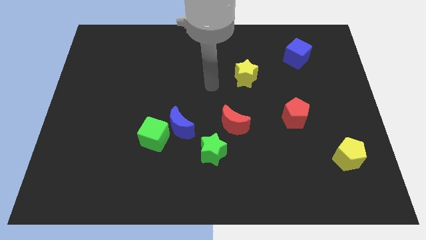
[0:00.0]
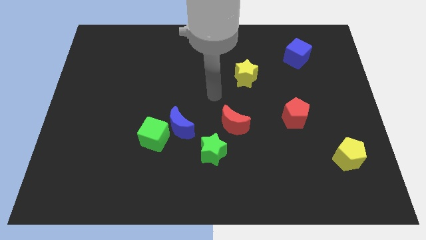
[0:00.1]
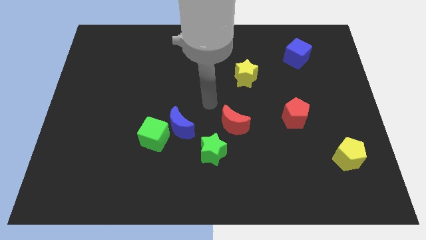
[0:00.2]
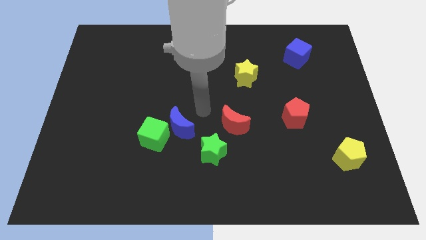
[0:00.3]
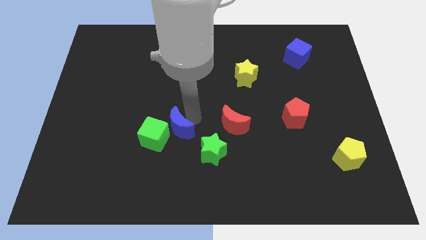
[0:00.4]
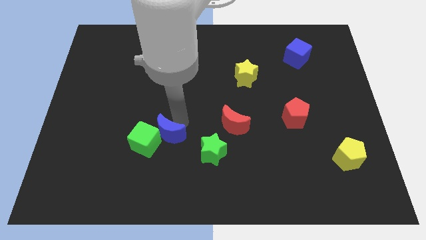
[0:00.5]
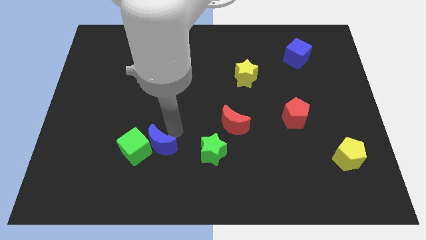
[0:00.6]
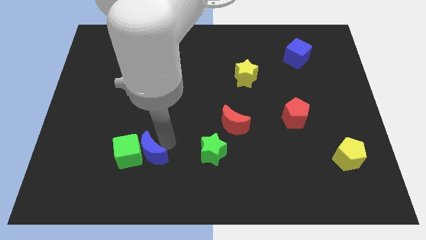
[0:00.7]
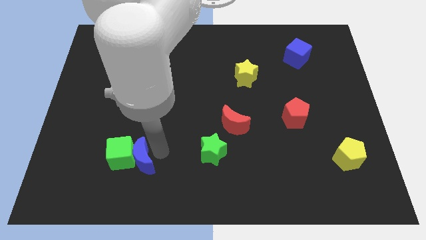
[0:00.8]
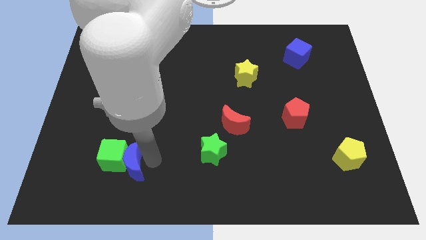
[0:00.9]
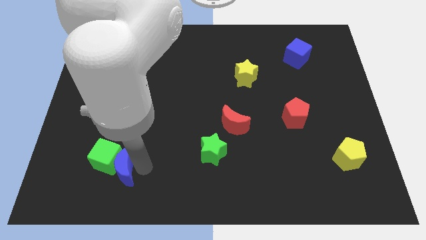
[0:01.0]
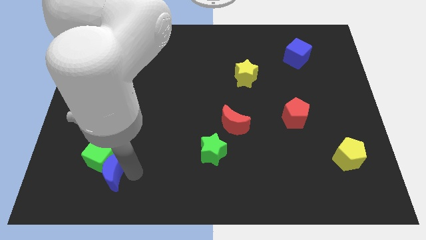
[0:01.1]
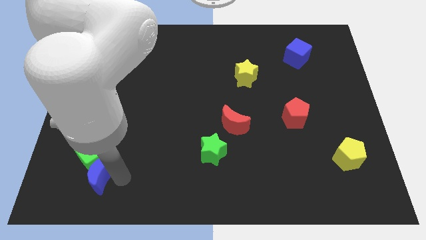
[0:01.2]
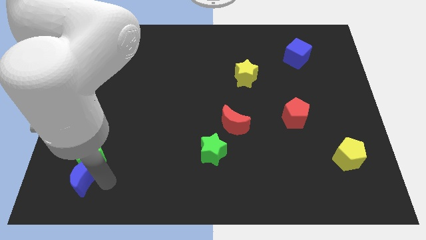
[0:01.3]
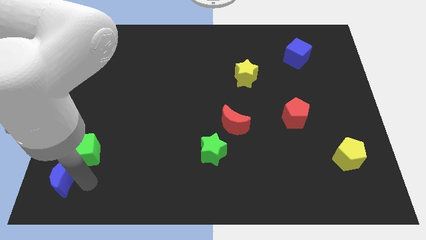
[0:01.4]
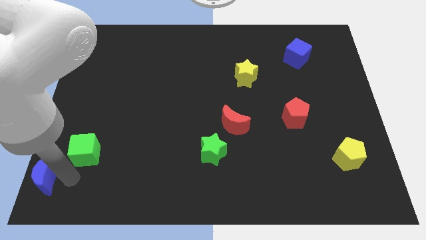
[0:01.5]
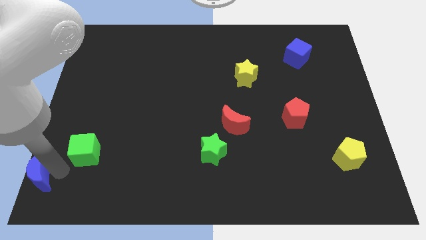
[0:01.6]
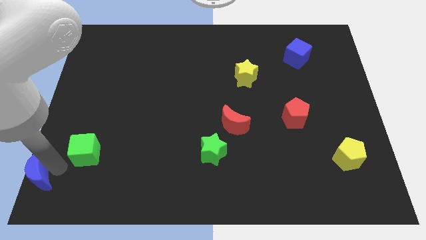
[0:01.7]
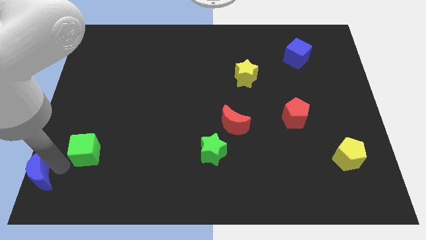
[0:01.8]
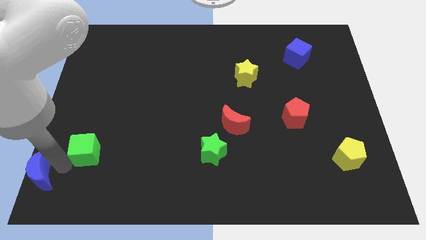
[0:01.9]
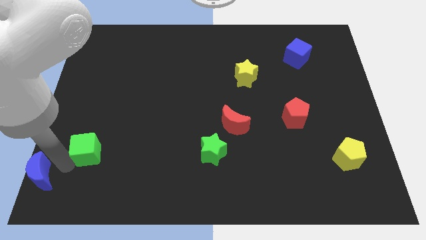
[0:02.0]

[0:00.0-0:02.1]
separate the green cube from the blue moon

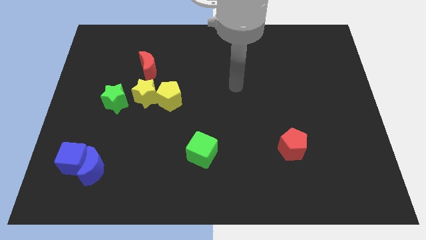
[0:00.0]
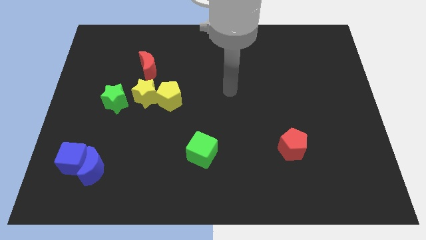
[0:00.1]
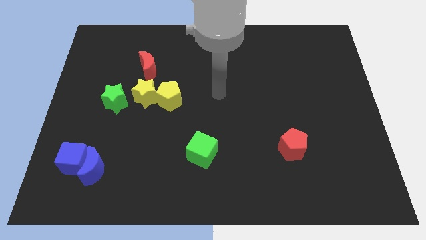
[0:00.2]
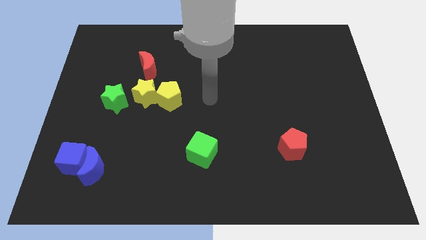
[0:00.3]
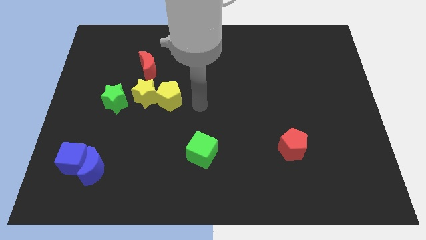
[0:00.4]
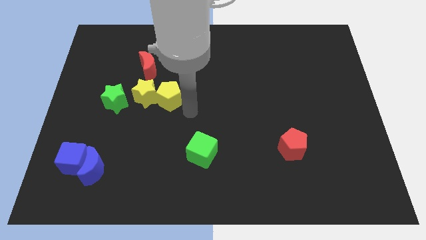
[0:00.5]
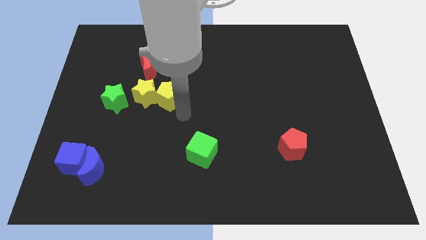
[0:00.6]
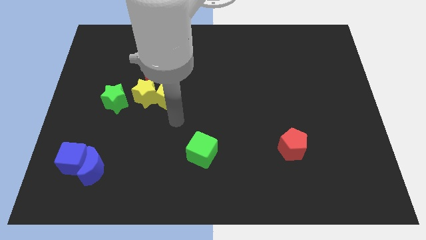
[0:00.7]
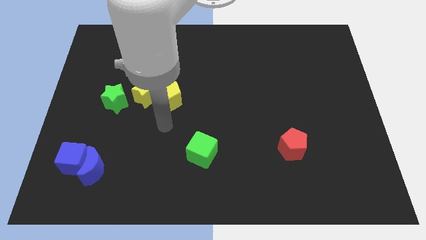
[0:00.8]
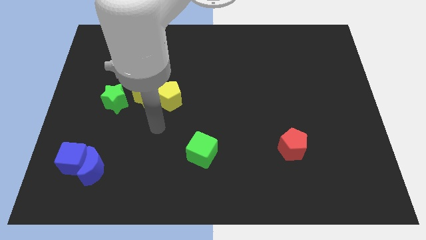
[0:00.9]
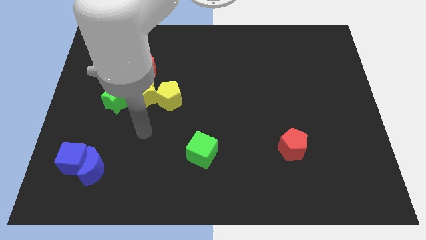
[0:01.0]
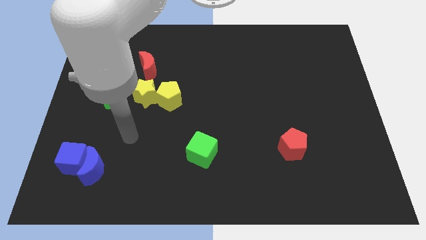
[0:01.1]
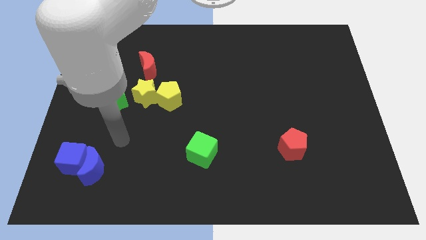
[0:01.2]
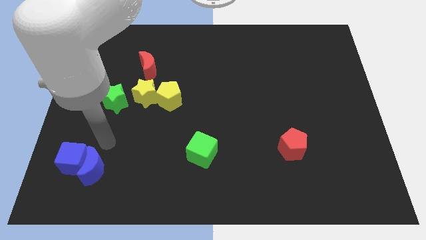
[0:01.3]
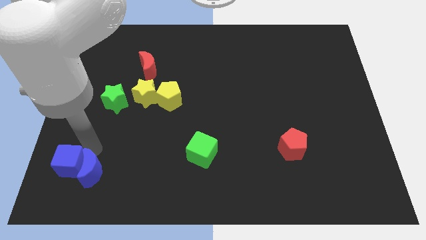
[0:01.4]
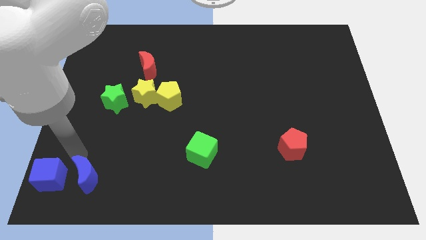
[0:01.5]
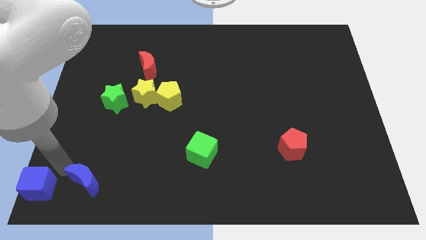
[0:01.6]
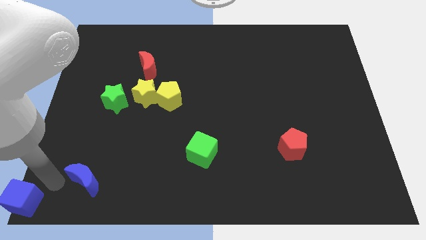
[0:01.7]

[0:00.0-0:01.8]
separate the blue moon from the blue cube

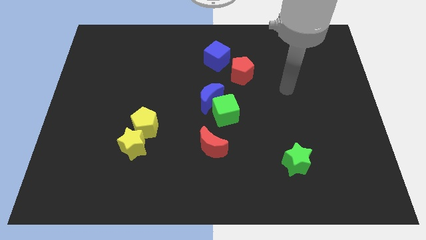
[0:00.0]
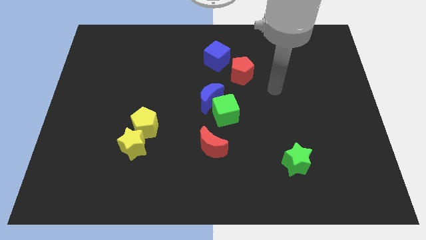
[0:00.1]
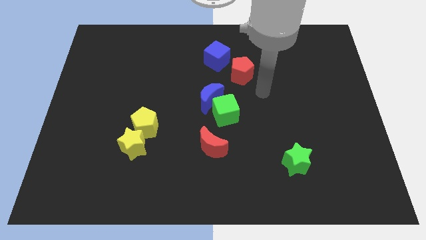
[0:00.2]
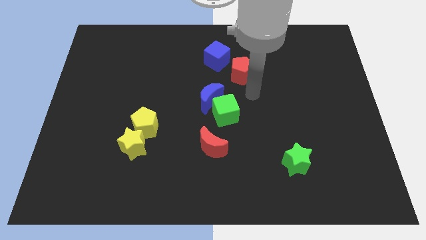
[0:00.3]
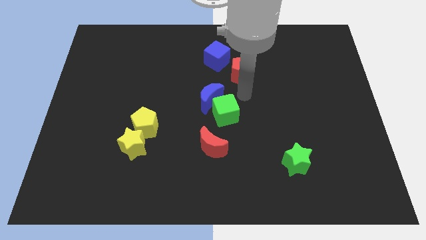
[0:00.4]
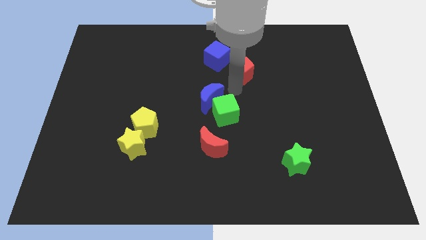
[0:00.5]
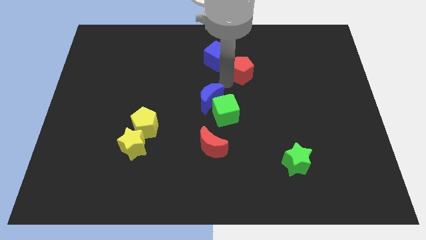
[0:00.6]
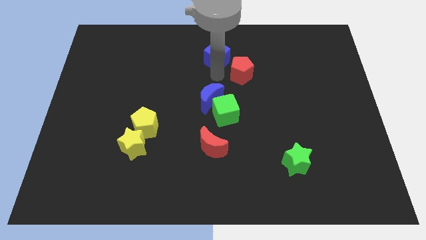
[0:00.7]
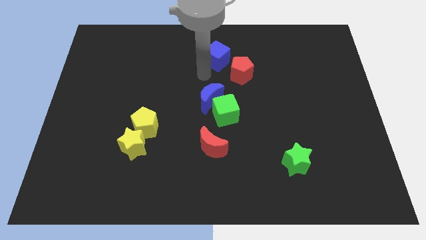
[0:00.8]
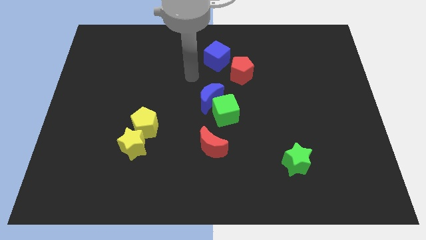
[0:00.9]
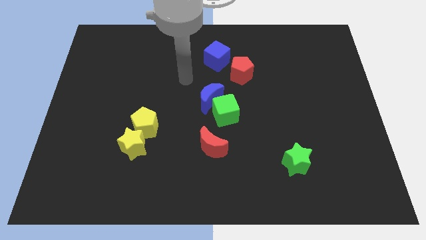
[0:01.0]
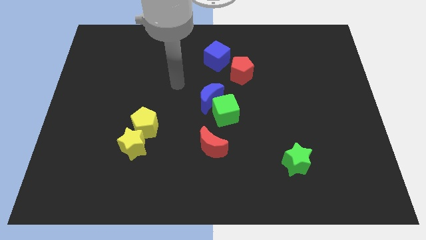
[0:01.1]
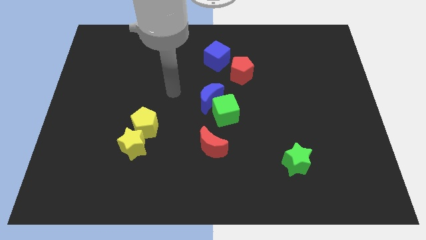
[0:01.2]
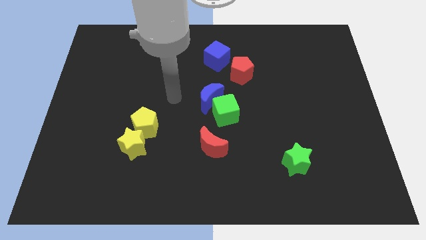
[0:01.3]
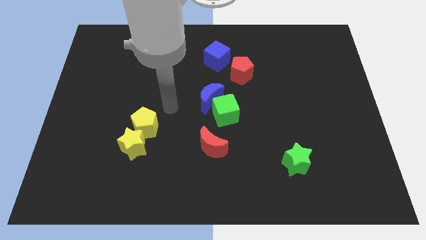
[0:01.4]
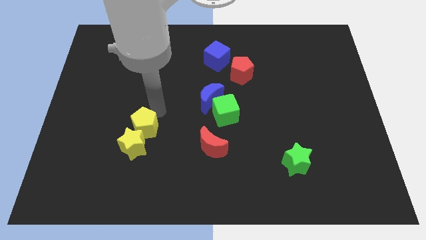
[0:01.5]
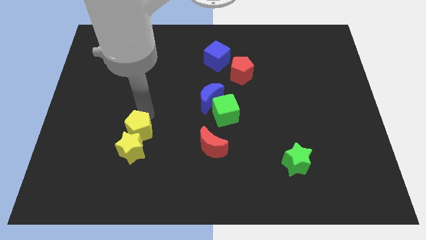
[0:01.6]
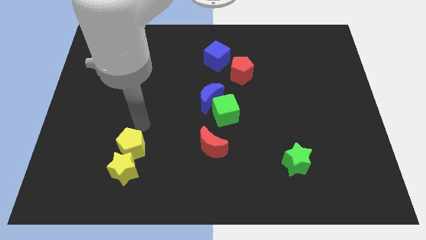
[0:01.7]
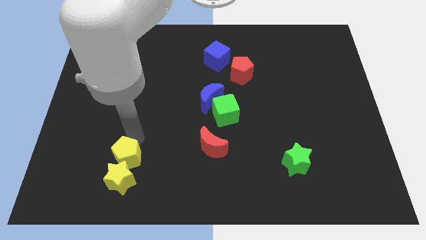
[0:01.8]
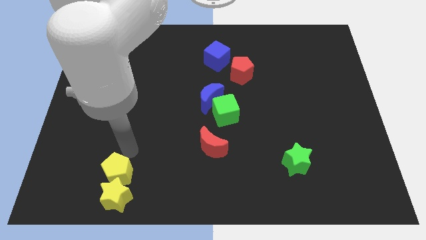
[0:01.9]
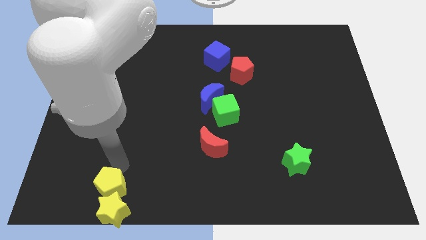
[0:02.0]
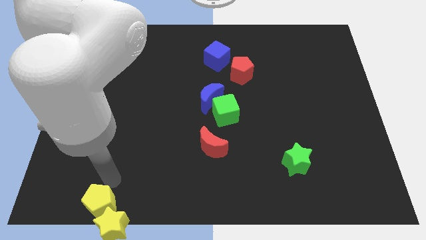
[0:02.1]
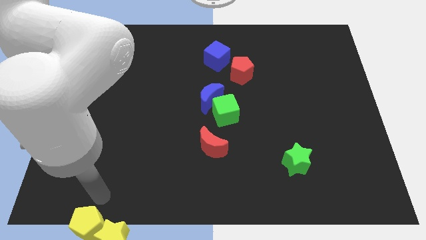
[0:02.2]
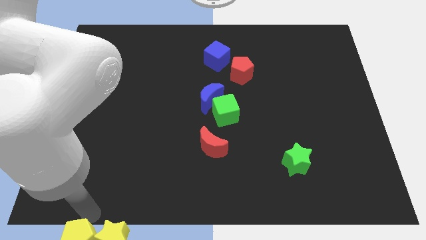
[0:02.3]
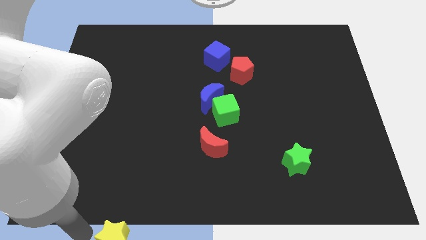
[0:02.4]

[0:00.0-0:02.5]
move the yellow star away from the yellow pentagon

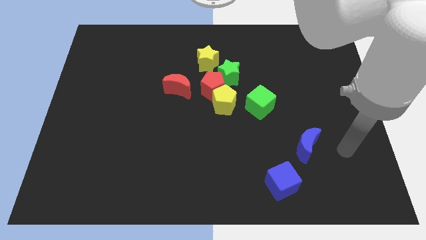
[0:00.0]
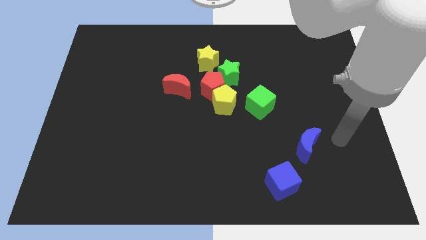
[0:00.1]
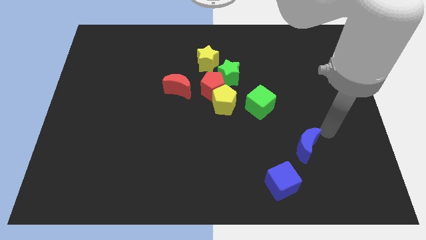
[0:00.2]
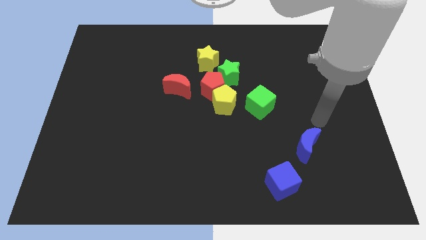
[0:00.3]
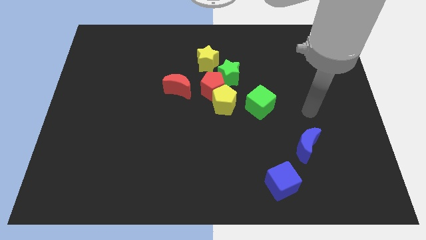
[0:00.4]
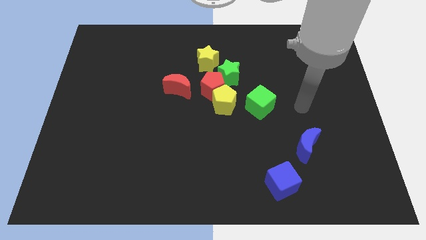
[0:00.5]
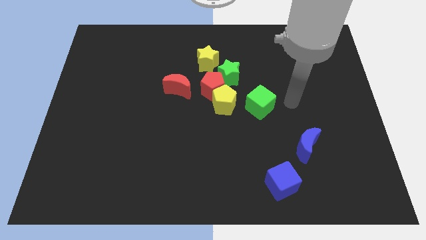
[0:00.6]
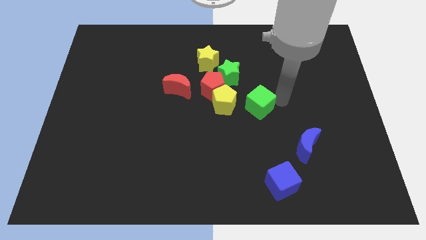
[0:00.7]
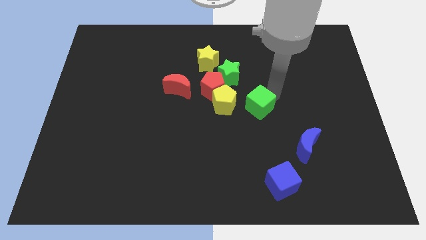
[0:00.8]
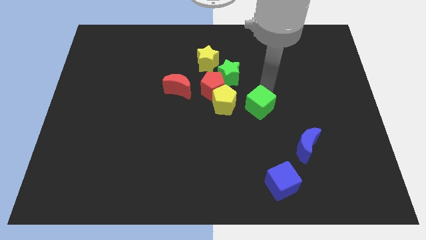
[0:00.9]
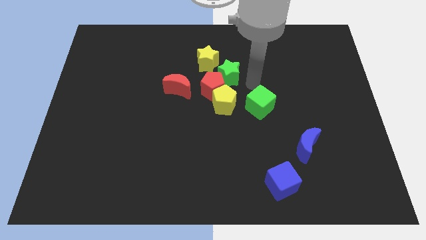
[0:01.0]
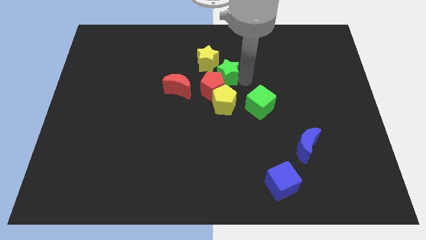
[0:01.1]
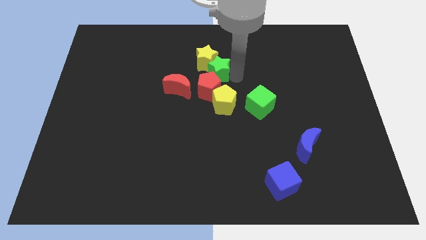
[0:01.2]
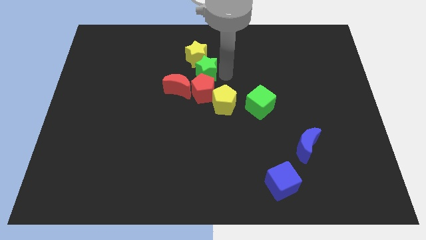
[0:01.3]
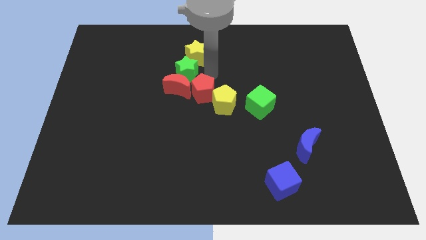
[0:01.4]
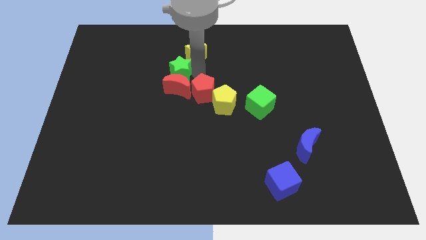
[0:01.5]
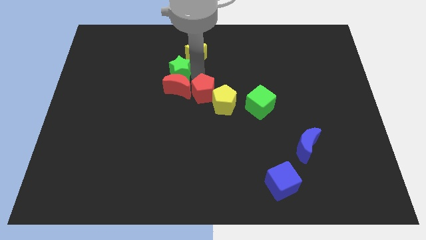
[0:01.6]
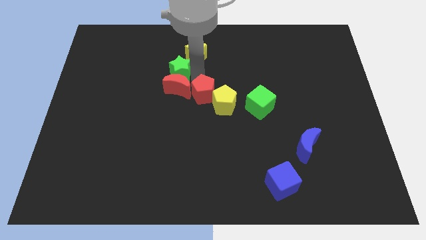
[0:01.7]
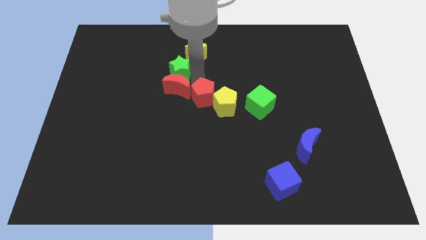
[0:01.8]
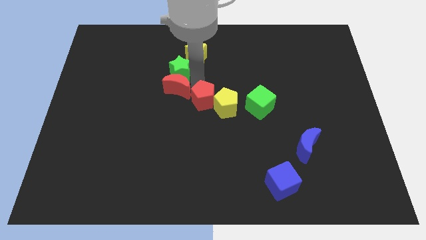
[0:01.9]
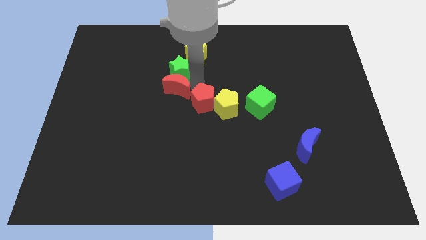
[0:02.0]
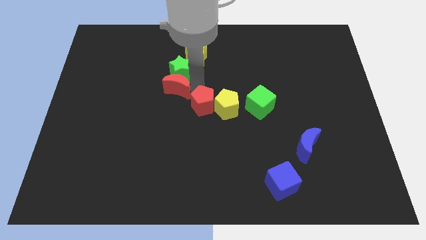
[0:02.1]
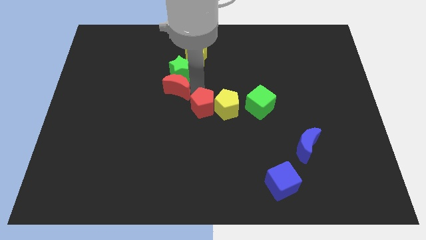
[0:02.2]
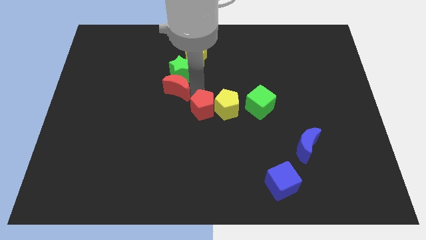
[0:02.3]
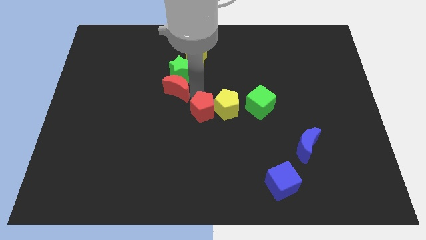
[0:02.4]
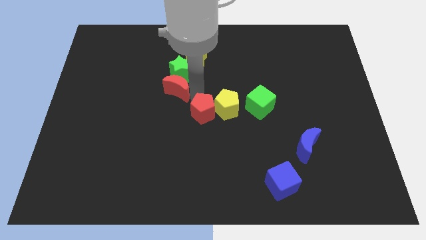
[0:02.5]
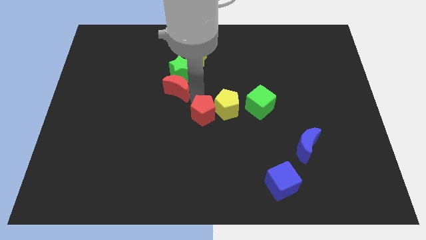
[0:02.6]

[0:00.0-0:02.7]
move the red pentagon away from the group of blocks

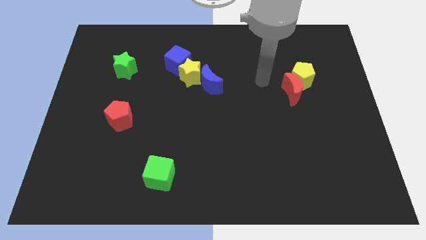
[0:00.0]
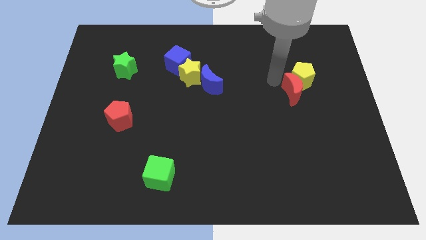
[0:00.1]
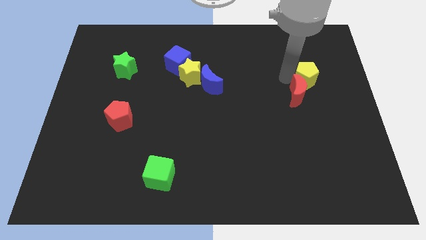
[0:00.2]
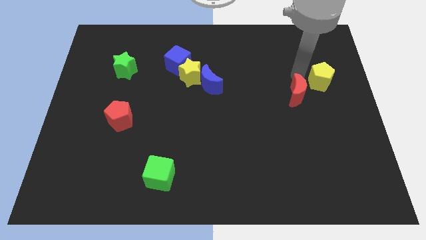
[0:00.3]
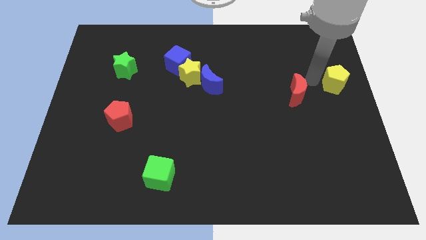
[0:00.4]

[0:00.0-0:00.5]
pull the red moon apart from the yellow pentagon
